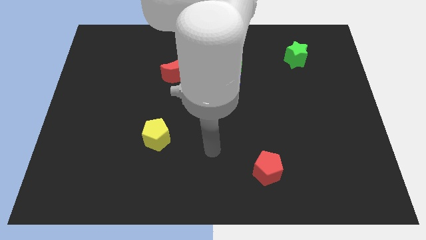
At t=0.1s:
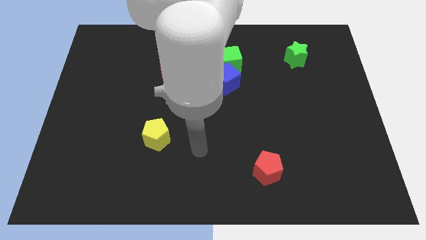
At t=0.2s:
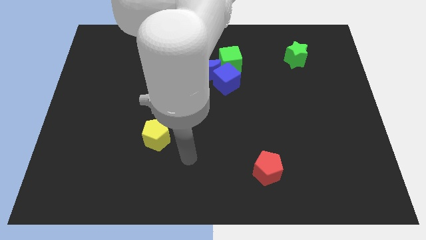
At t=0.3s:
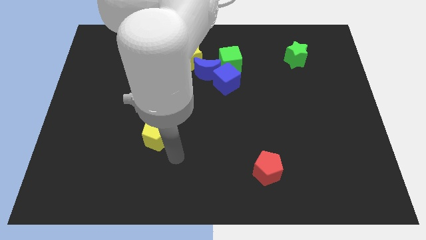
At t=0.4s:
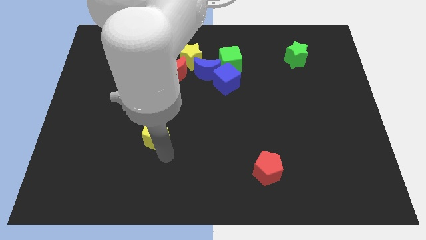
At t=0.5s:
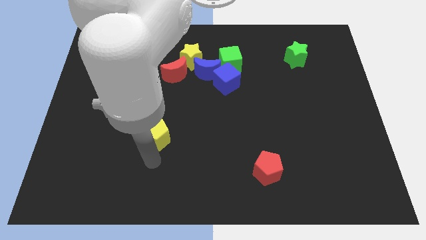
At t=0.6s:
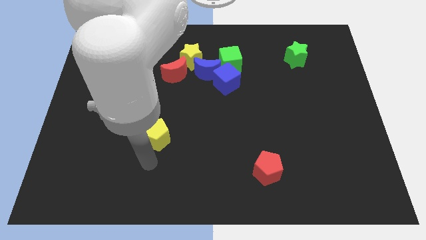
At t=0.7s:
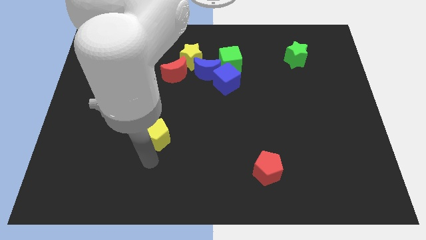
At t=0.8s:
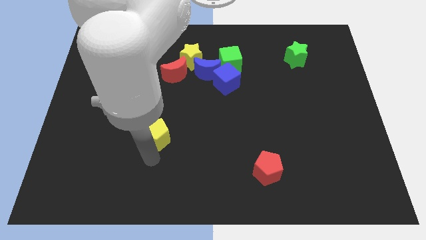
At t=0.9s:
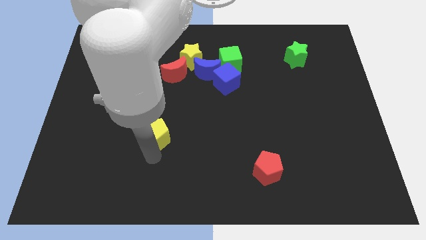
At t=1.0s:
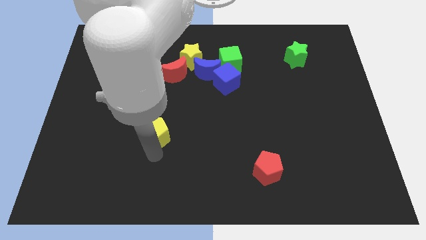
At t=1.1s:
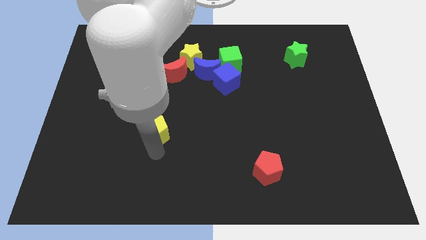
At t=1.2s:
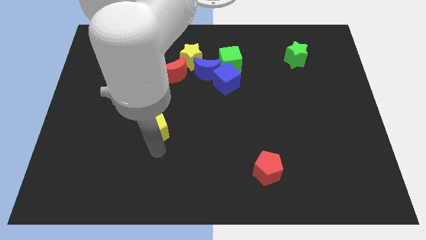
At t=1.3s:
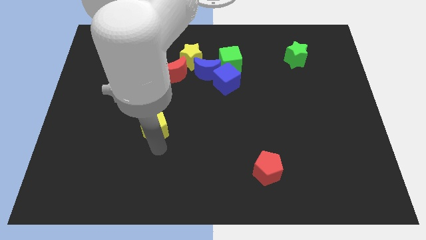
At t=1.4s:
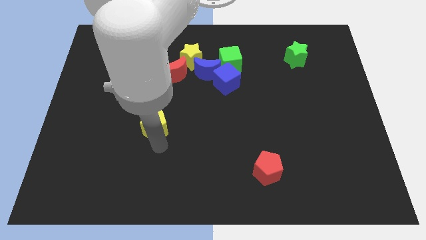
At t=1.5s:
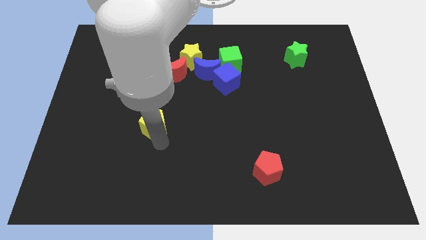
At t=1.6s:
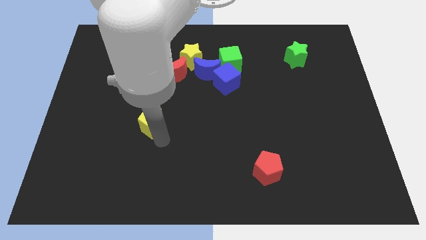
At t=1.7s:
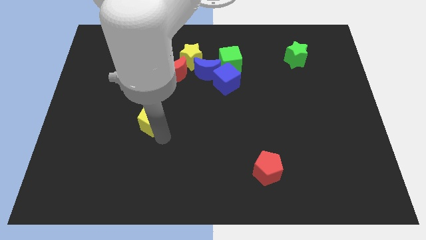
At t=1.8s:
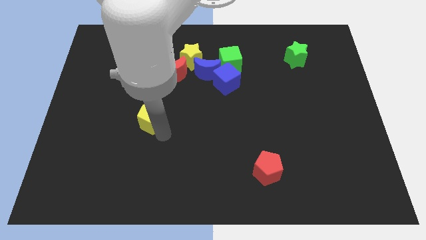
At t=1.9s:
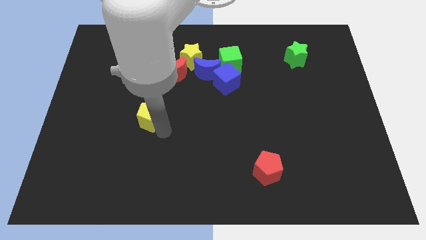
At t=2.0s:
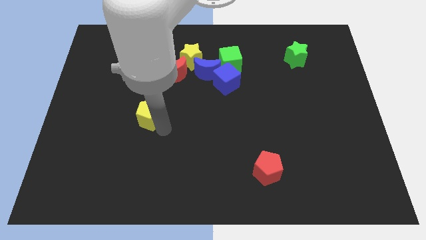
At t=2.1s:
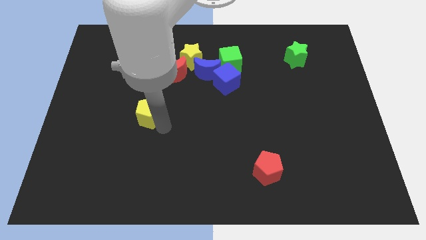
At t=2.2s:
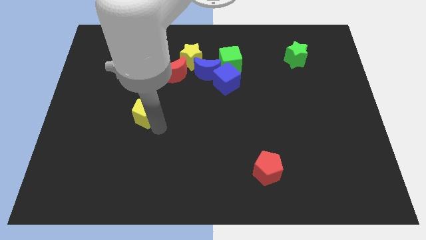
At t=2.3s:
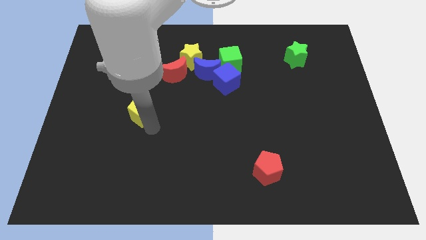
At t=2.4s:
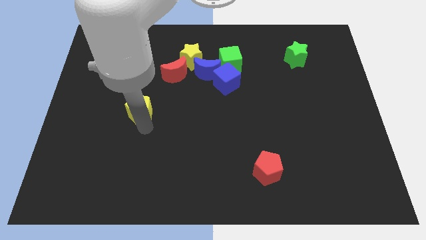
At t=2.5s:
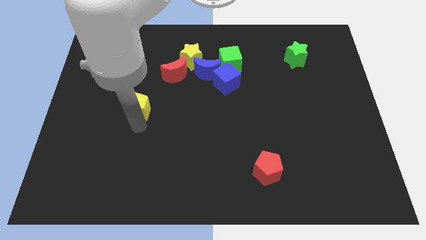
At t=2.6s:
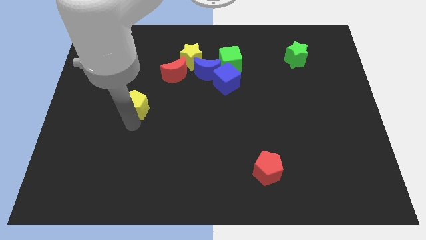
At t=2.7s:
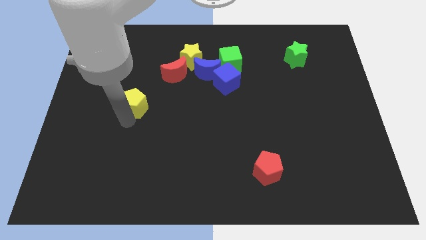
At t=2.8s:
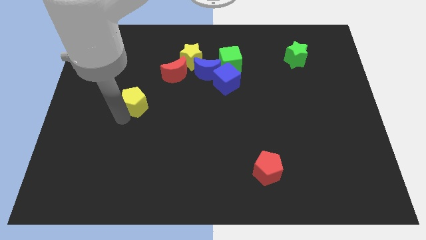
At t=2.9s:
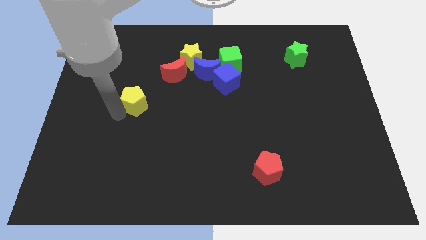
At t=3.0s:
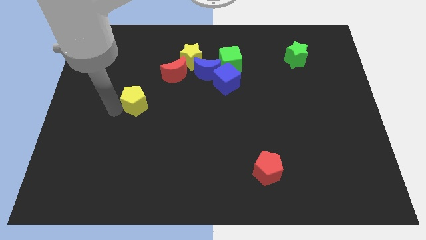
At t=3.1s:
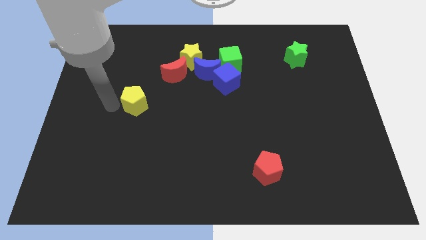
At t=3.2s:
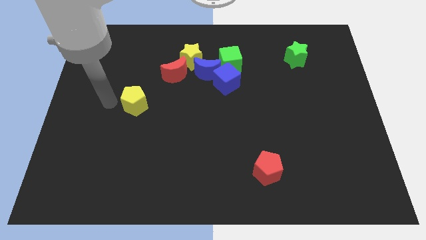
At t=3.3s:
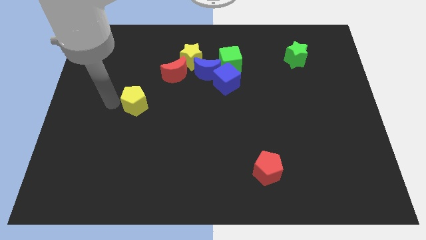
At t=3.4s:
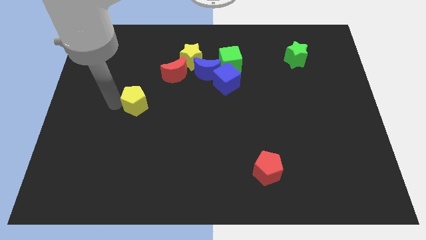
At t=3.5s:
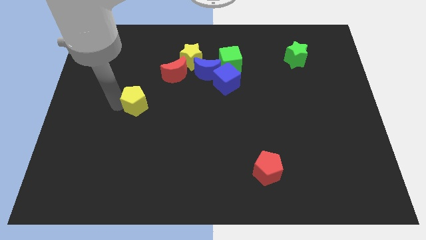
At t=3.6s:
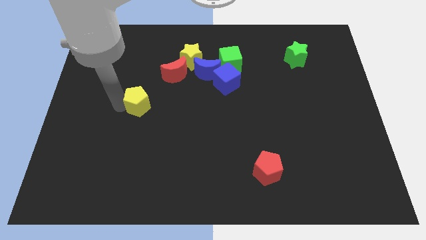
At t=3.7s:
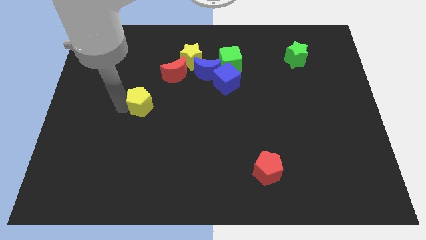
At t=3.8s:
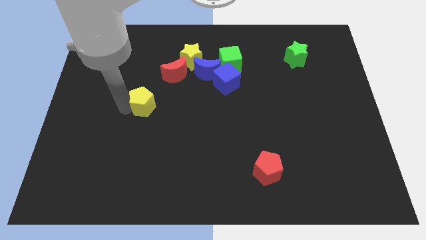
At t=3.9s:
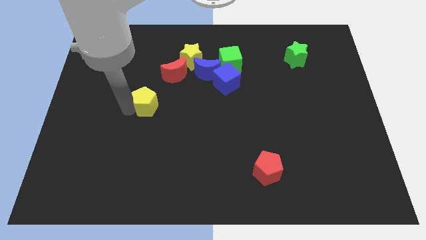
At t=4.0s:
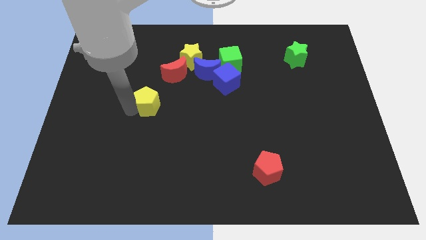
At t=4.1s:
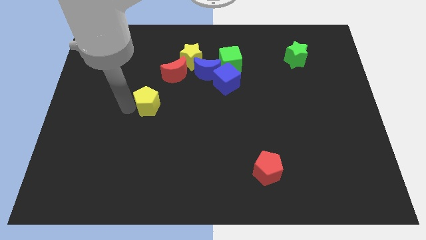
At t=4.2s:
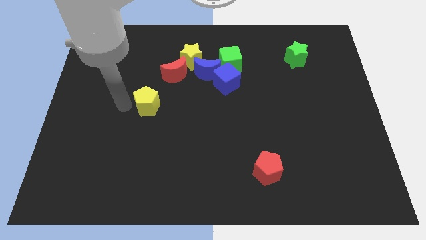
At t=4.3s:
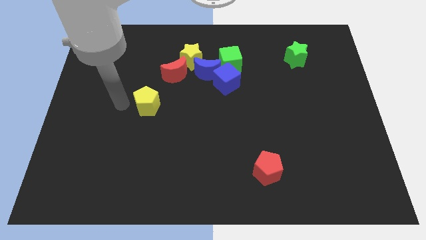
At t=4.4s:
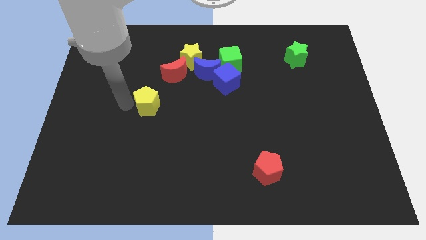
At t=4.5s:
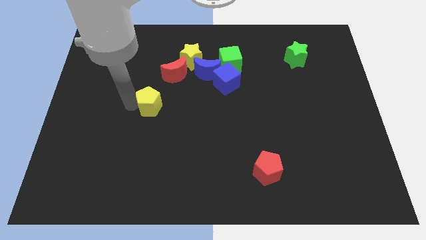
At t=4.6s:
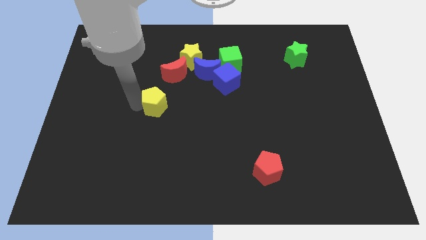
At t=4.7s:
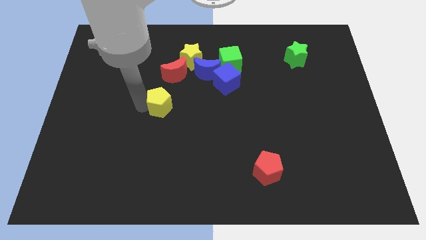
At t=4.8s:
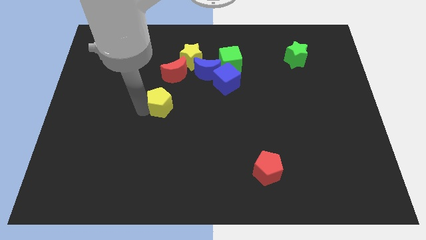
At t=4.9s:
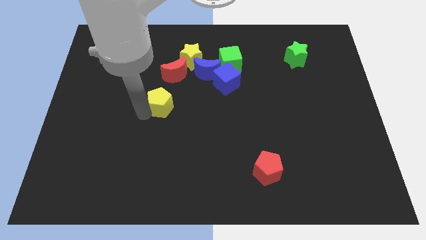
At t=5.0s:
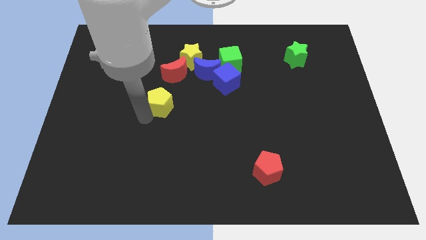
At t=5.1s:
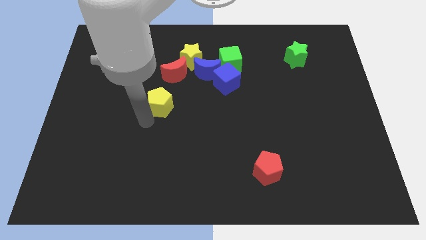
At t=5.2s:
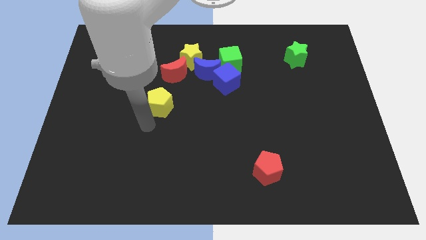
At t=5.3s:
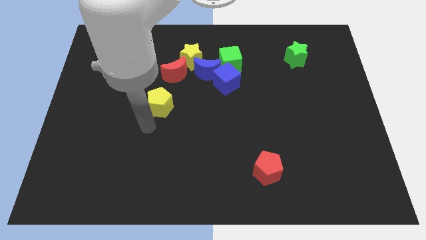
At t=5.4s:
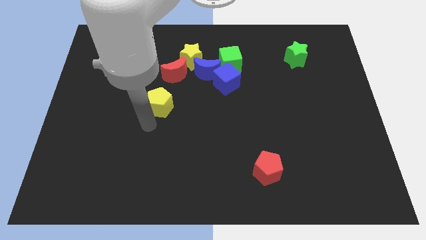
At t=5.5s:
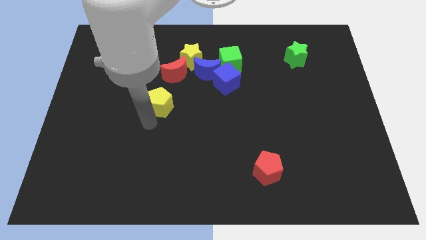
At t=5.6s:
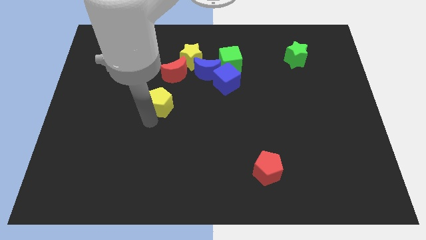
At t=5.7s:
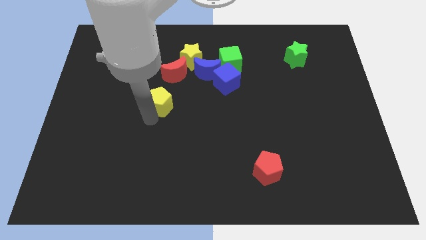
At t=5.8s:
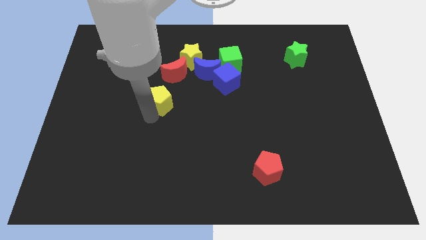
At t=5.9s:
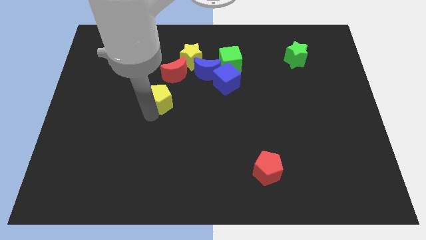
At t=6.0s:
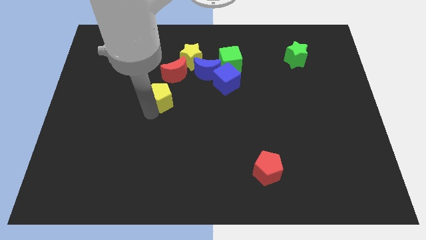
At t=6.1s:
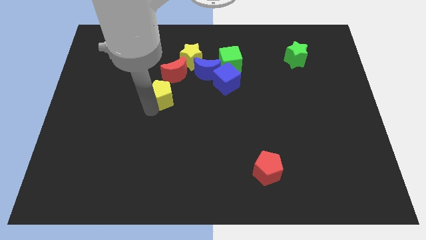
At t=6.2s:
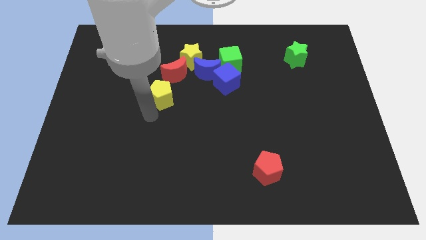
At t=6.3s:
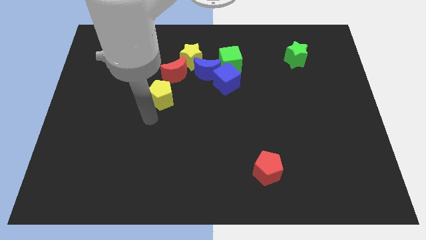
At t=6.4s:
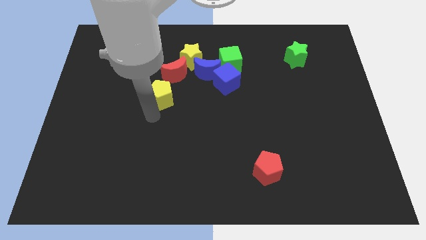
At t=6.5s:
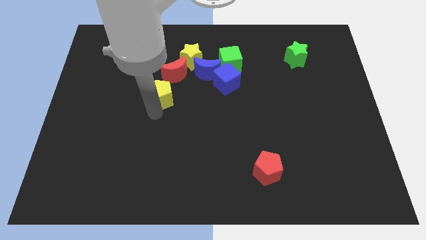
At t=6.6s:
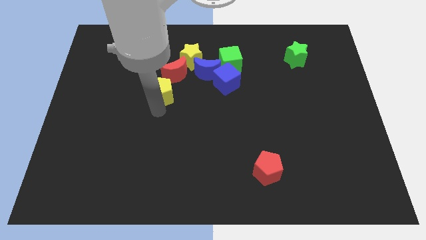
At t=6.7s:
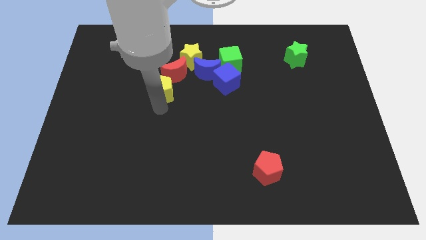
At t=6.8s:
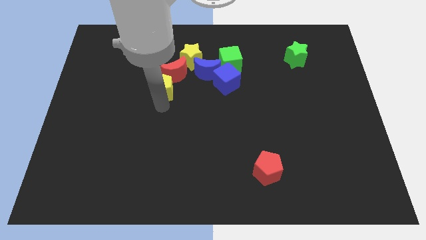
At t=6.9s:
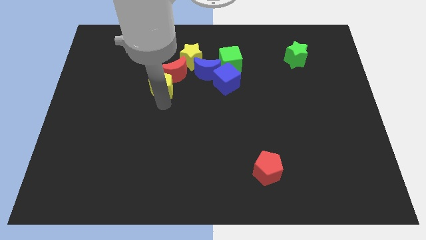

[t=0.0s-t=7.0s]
slide the yellow pentagon to the red moon
